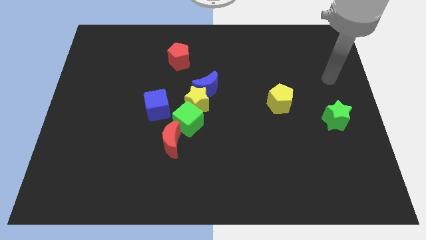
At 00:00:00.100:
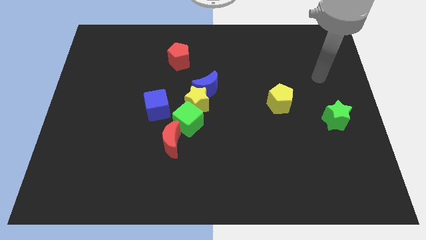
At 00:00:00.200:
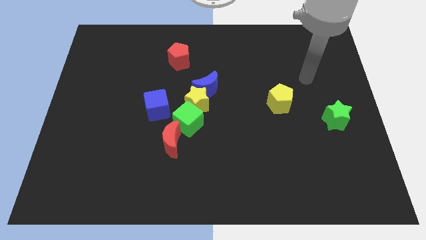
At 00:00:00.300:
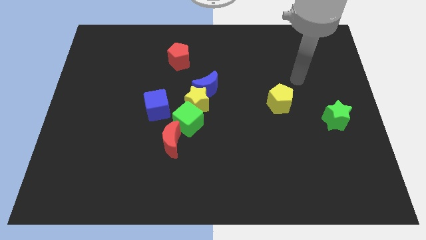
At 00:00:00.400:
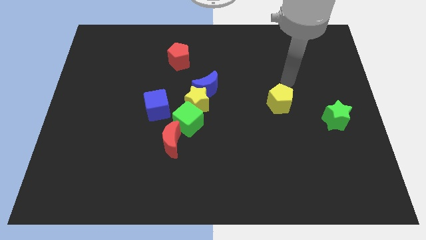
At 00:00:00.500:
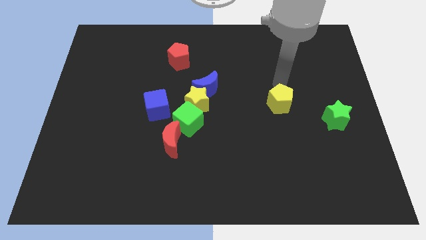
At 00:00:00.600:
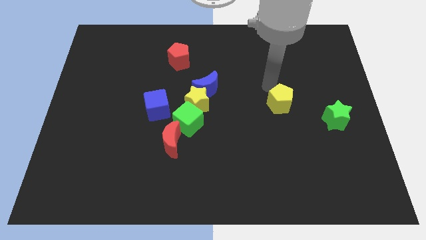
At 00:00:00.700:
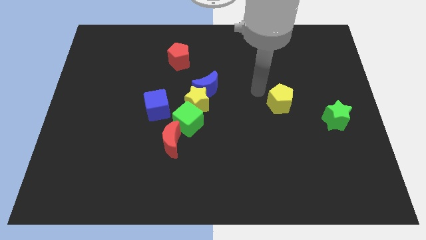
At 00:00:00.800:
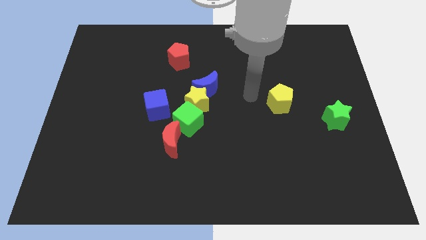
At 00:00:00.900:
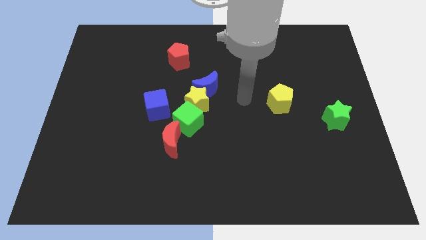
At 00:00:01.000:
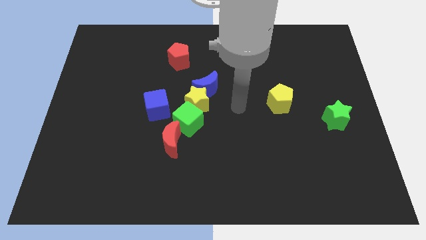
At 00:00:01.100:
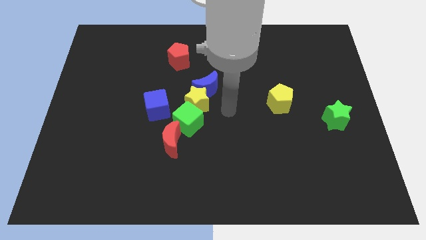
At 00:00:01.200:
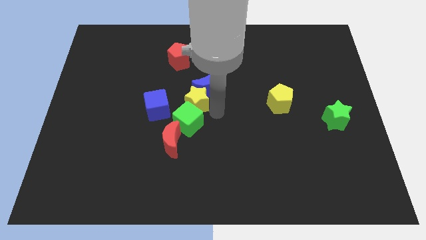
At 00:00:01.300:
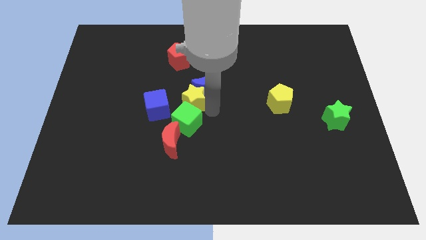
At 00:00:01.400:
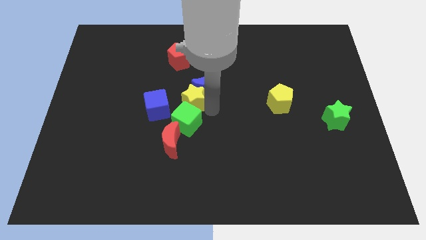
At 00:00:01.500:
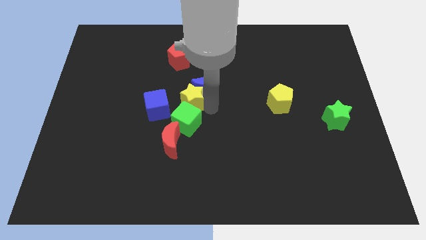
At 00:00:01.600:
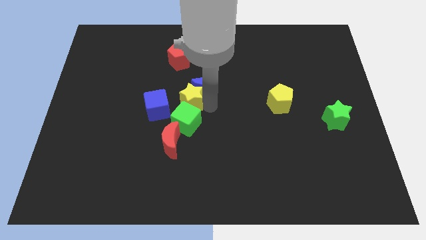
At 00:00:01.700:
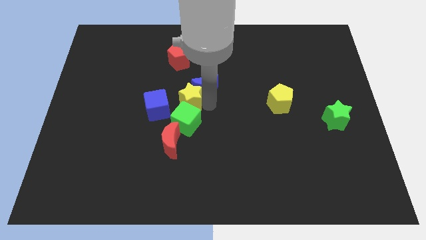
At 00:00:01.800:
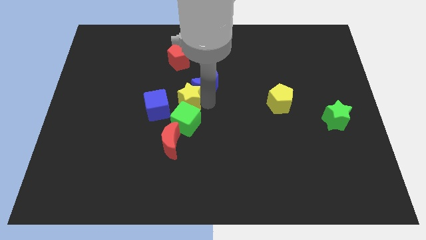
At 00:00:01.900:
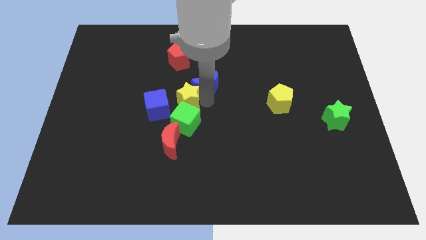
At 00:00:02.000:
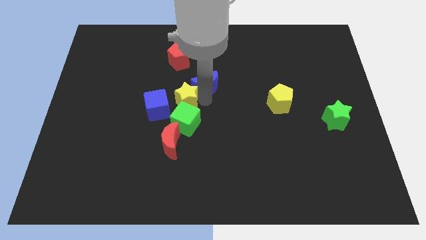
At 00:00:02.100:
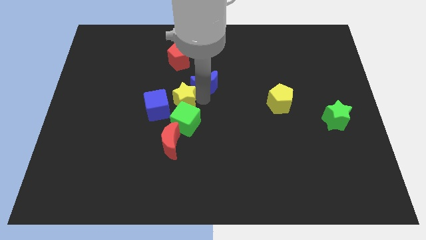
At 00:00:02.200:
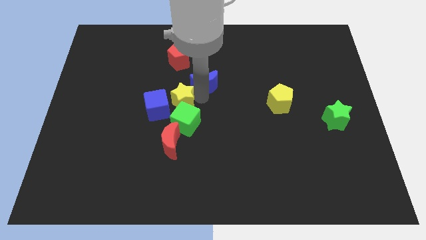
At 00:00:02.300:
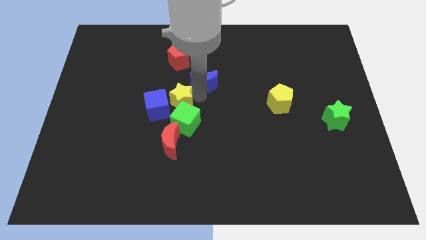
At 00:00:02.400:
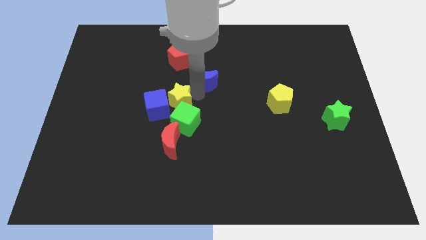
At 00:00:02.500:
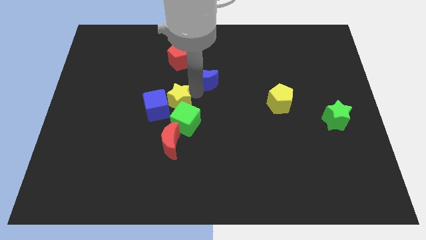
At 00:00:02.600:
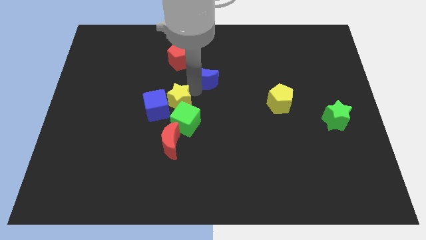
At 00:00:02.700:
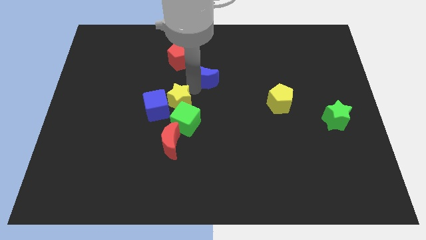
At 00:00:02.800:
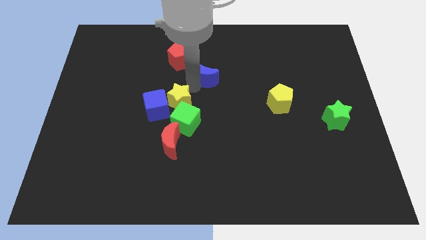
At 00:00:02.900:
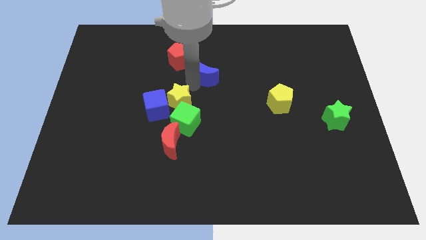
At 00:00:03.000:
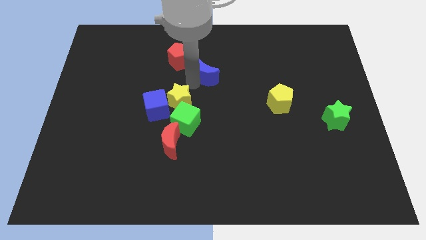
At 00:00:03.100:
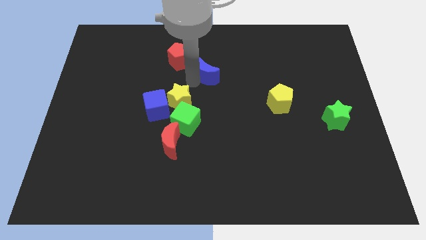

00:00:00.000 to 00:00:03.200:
move the blue moon away from the yellow star

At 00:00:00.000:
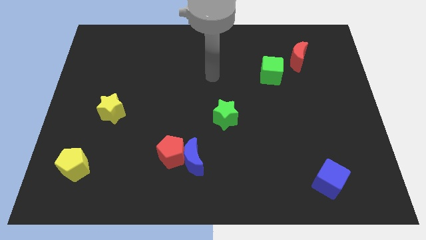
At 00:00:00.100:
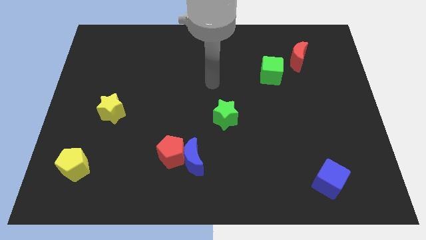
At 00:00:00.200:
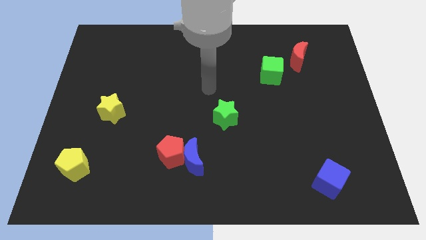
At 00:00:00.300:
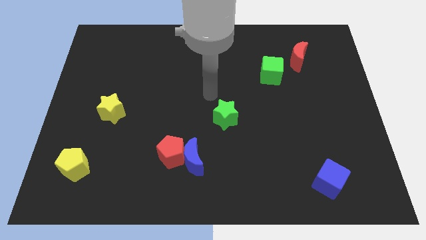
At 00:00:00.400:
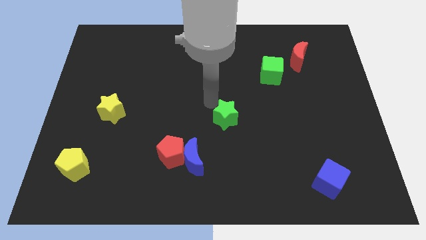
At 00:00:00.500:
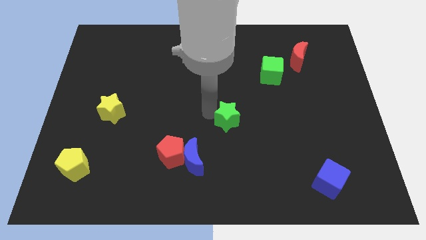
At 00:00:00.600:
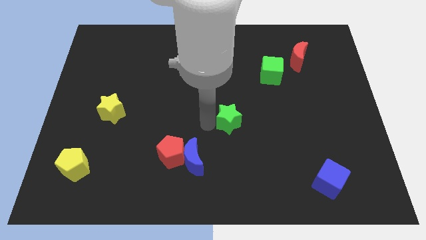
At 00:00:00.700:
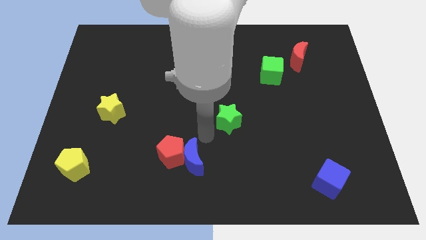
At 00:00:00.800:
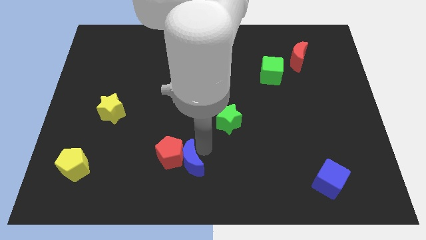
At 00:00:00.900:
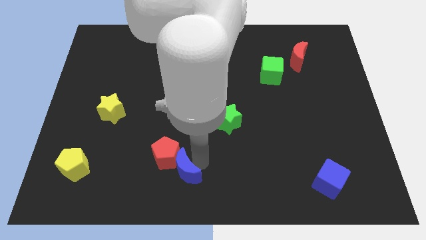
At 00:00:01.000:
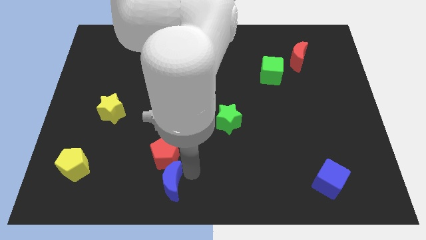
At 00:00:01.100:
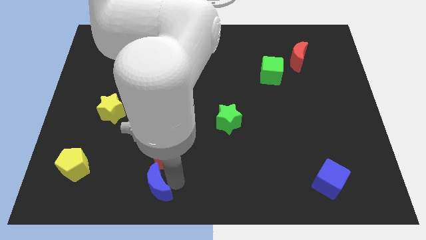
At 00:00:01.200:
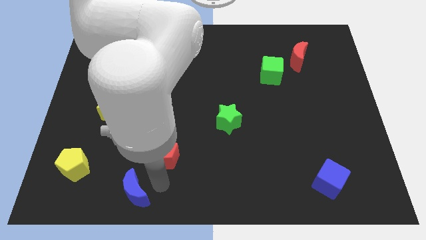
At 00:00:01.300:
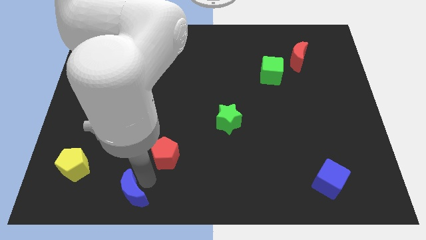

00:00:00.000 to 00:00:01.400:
separate the red pentagon from the blue moon

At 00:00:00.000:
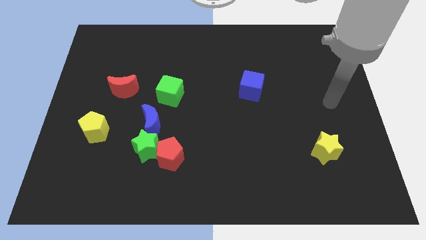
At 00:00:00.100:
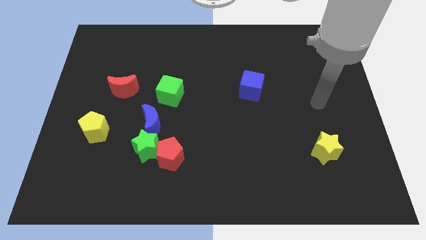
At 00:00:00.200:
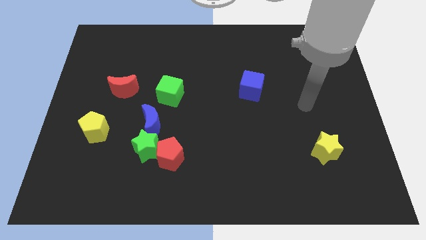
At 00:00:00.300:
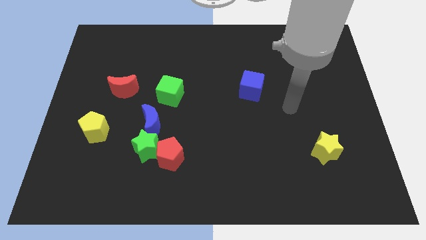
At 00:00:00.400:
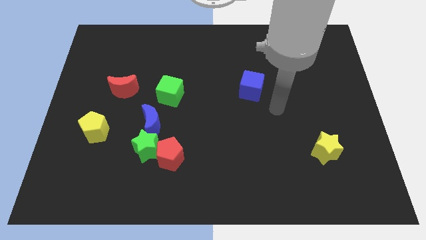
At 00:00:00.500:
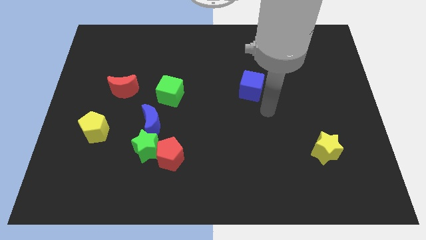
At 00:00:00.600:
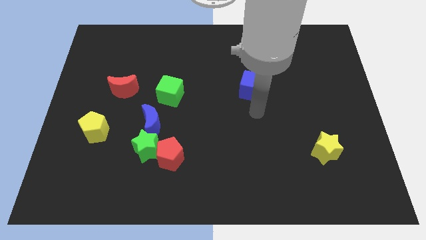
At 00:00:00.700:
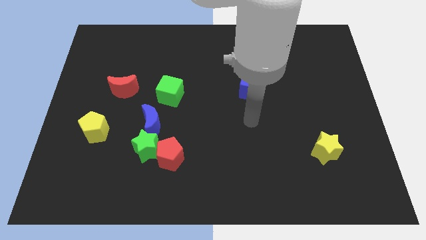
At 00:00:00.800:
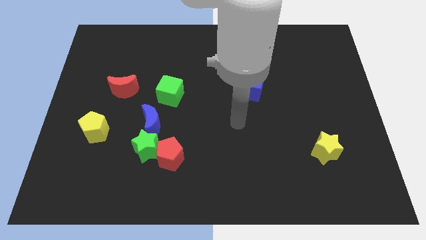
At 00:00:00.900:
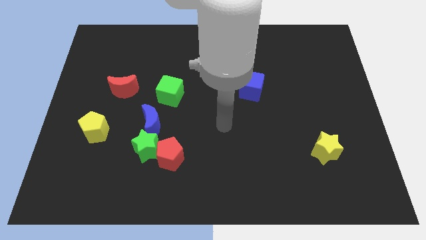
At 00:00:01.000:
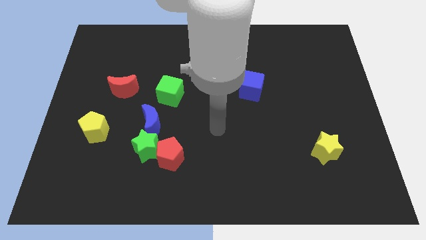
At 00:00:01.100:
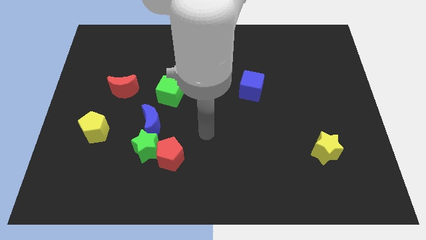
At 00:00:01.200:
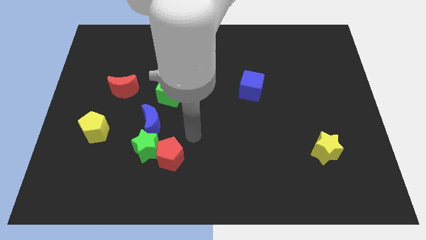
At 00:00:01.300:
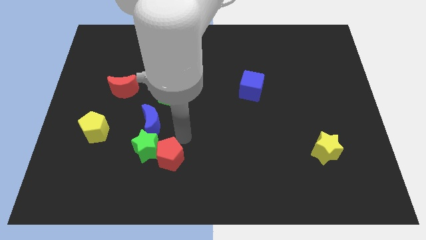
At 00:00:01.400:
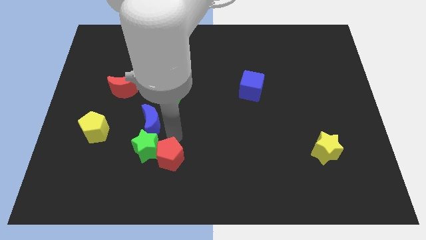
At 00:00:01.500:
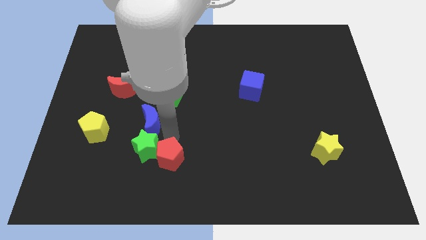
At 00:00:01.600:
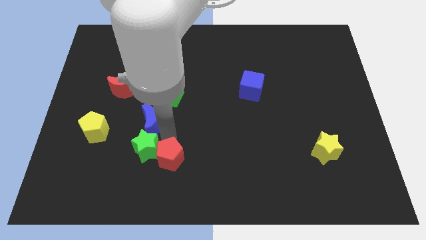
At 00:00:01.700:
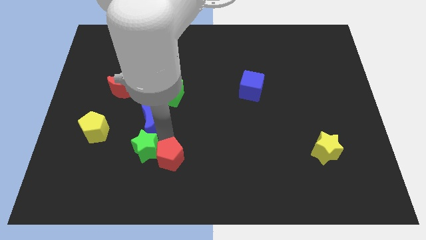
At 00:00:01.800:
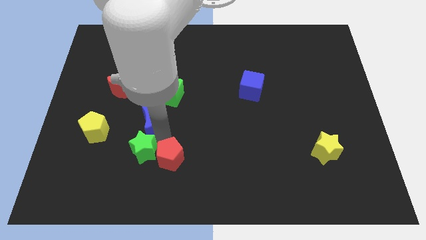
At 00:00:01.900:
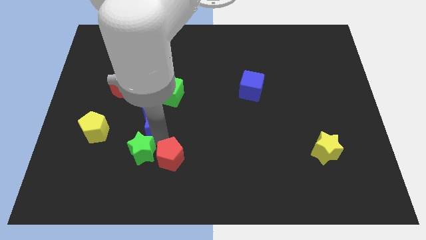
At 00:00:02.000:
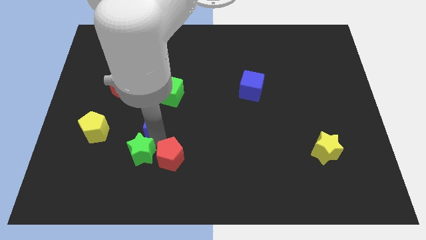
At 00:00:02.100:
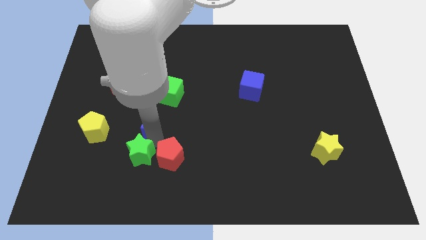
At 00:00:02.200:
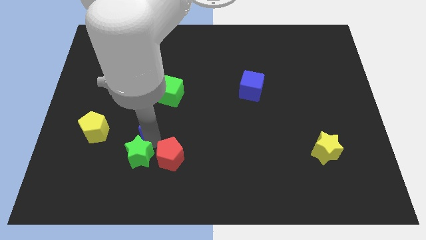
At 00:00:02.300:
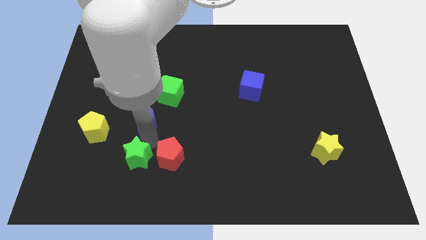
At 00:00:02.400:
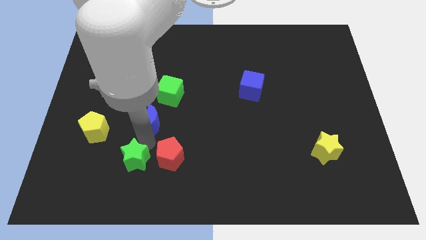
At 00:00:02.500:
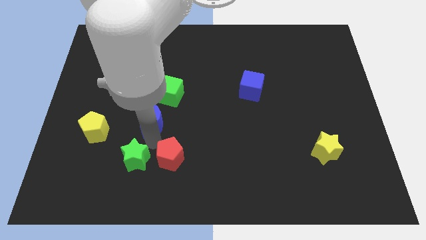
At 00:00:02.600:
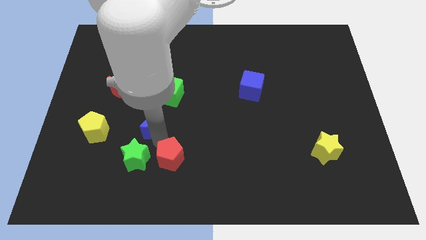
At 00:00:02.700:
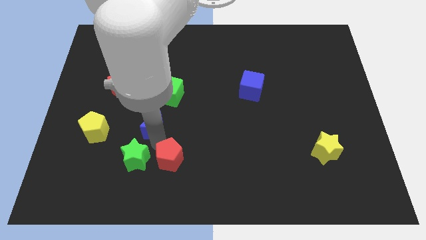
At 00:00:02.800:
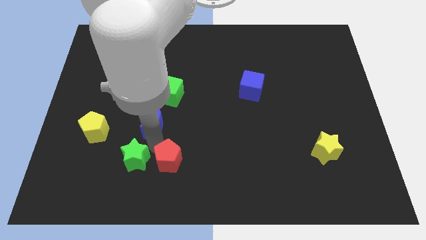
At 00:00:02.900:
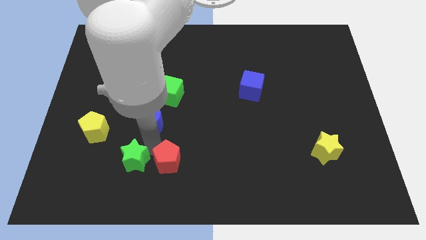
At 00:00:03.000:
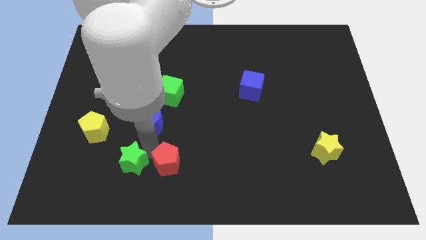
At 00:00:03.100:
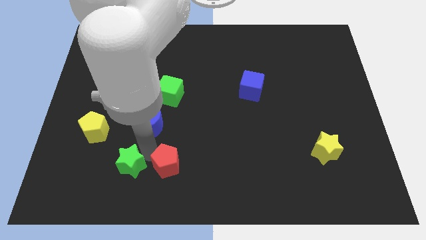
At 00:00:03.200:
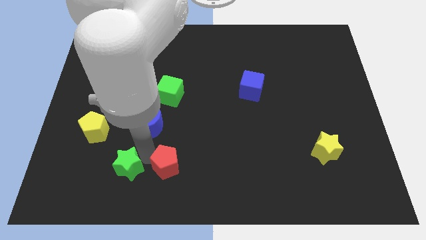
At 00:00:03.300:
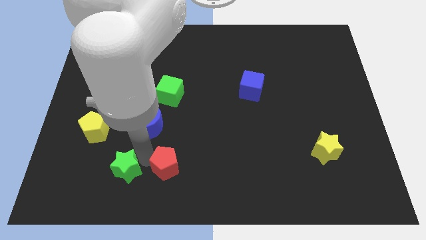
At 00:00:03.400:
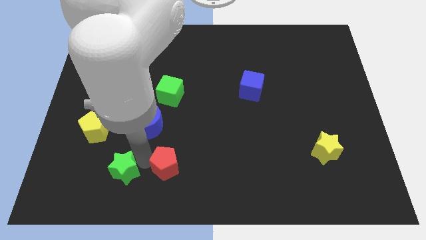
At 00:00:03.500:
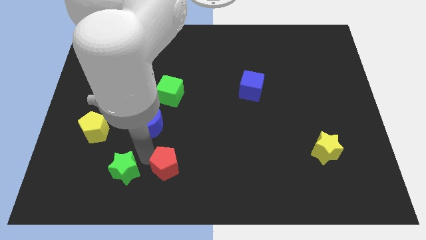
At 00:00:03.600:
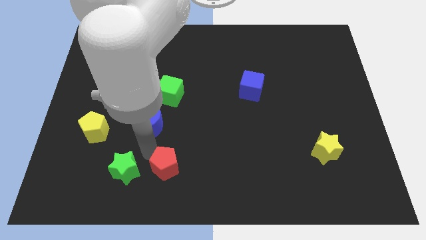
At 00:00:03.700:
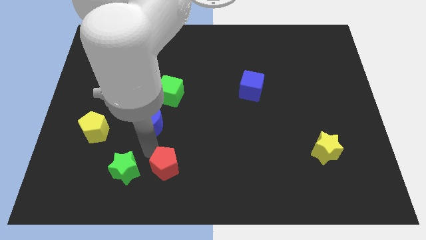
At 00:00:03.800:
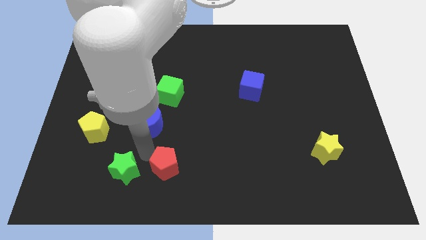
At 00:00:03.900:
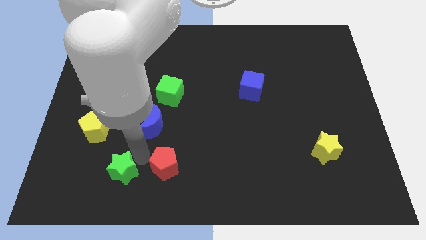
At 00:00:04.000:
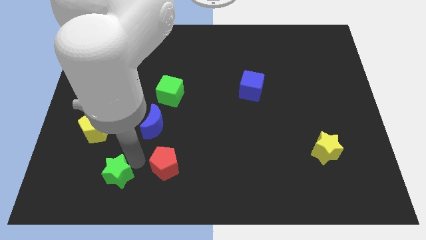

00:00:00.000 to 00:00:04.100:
move the green star away from the red pentagon and blue moon

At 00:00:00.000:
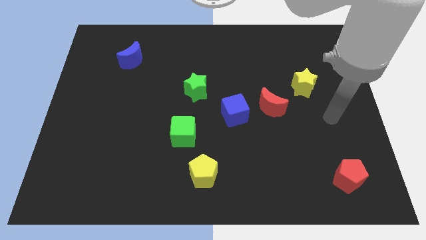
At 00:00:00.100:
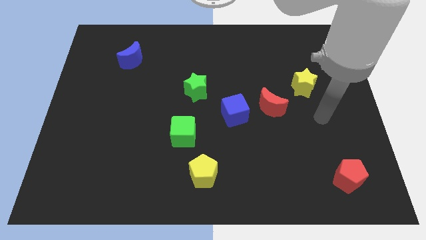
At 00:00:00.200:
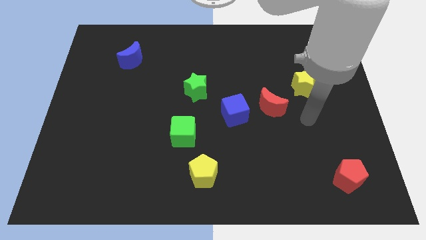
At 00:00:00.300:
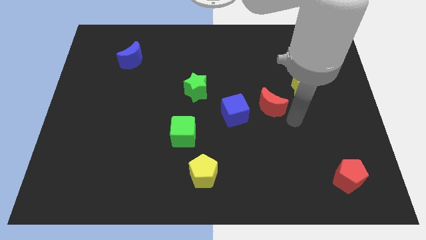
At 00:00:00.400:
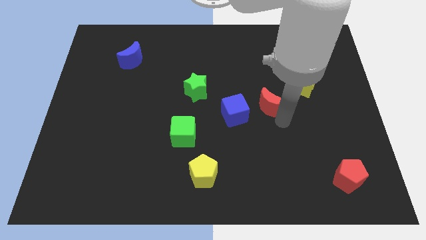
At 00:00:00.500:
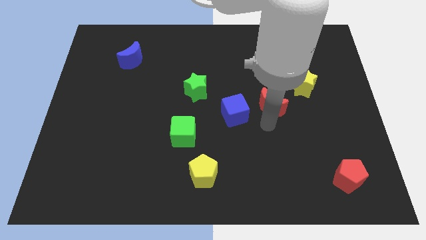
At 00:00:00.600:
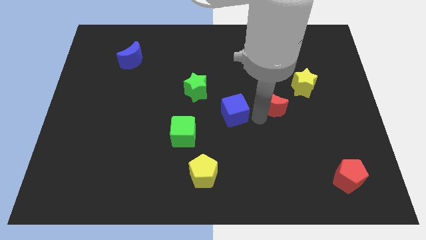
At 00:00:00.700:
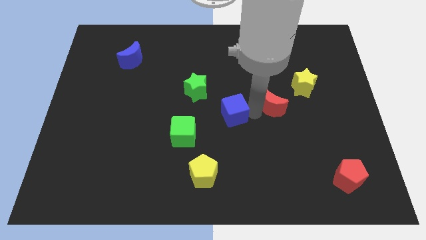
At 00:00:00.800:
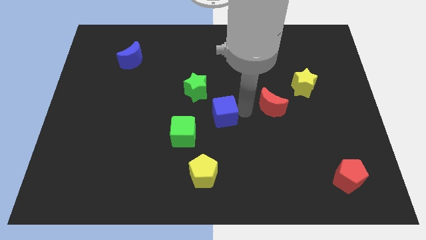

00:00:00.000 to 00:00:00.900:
separate the red moon from the blue cube
